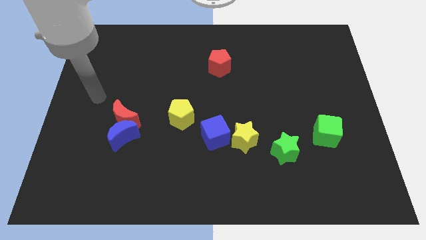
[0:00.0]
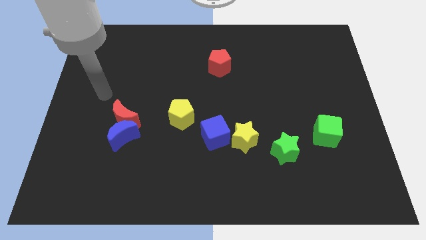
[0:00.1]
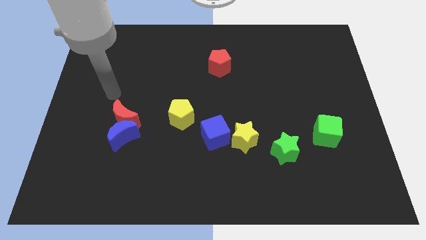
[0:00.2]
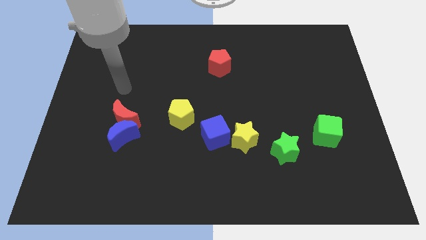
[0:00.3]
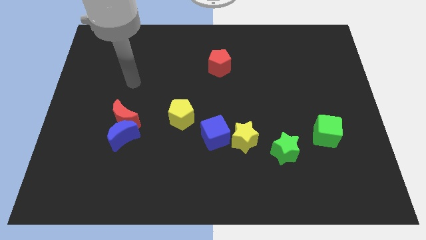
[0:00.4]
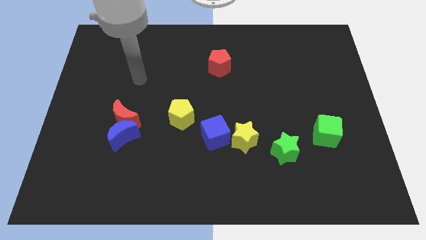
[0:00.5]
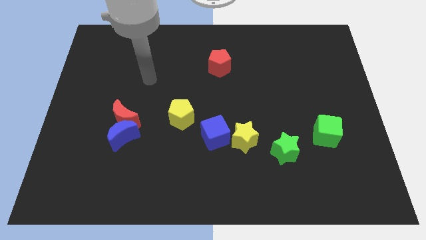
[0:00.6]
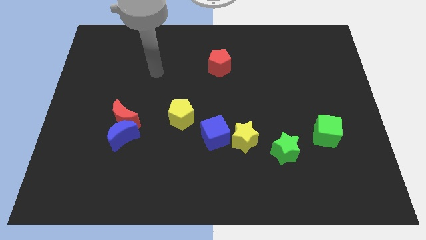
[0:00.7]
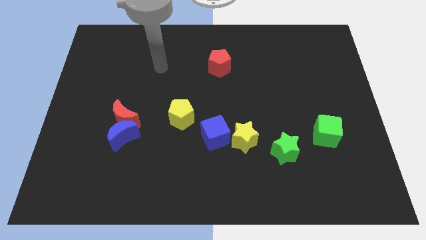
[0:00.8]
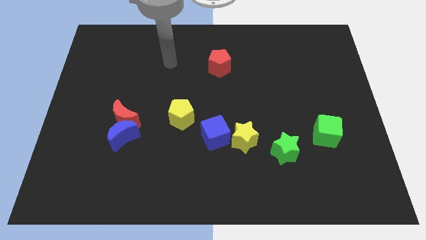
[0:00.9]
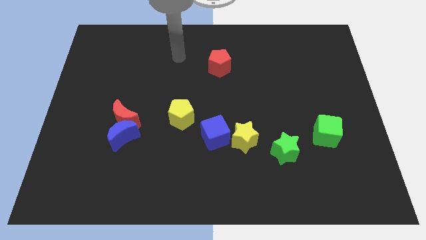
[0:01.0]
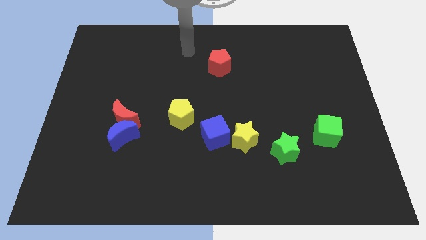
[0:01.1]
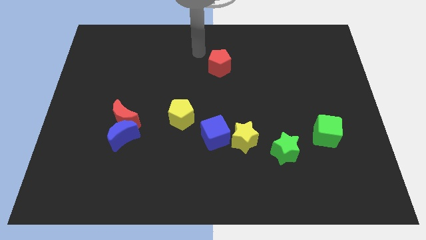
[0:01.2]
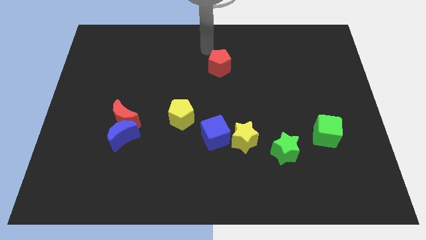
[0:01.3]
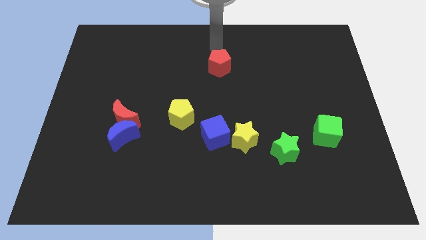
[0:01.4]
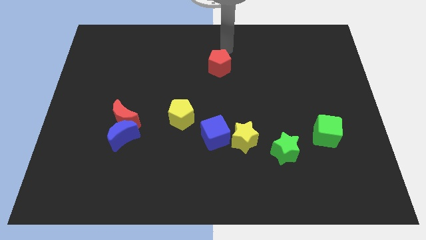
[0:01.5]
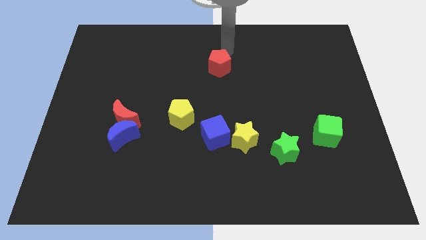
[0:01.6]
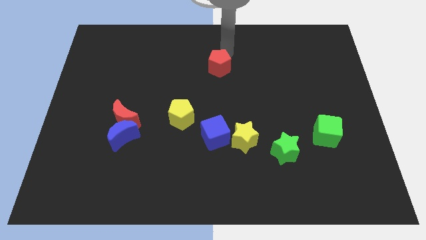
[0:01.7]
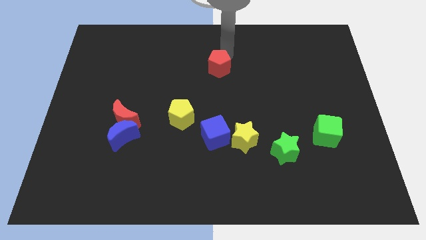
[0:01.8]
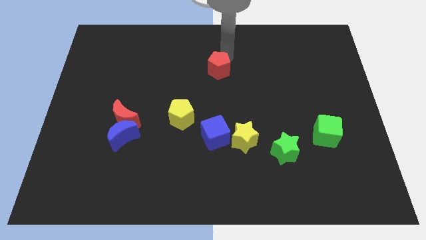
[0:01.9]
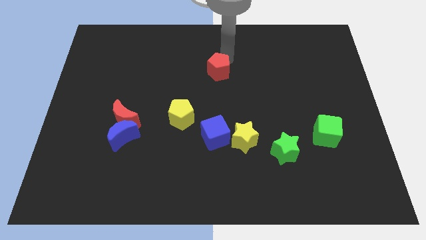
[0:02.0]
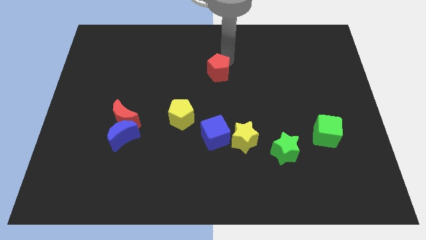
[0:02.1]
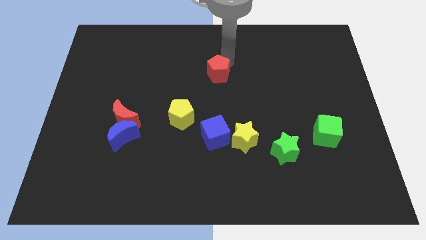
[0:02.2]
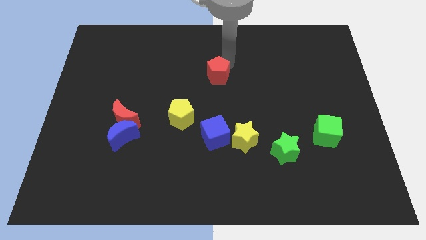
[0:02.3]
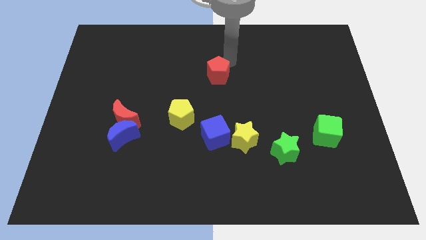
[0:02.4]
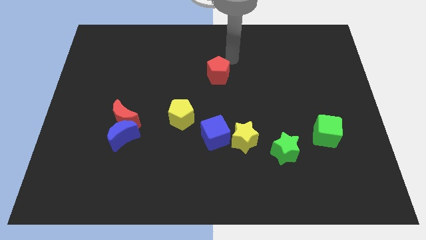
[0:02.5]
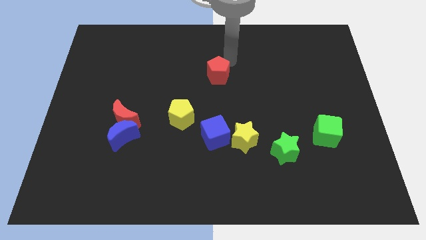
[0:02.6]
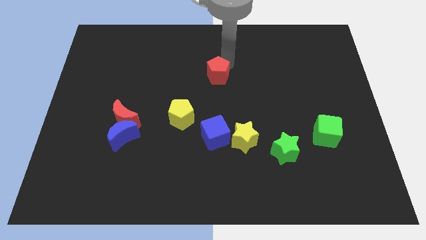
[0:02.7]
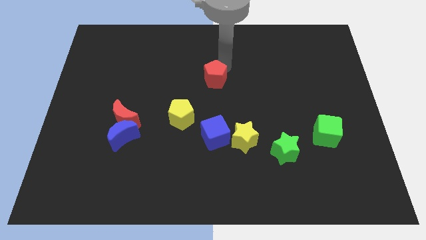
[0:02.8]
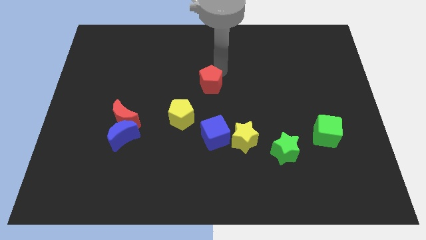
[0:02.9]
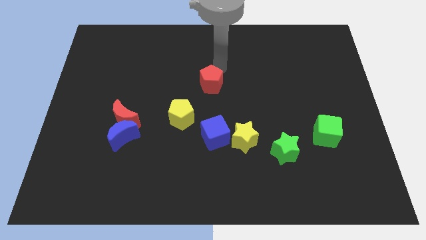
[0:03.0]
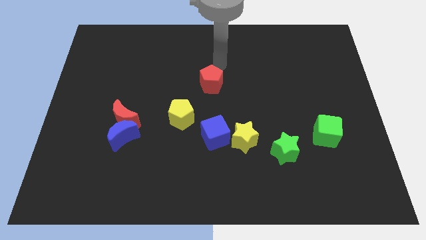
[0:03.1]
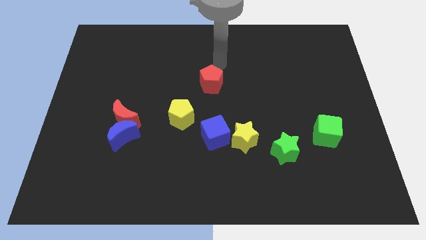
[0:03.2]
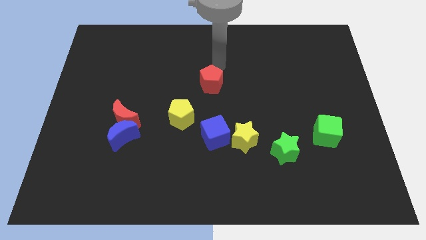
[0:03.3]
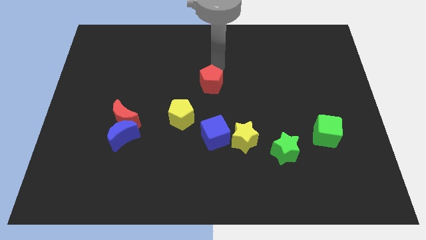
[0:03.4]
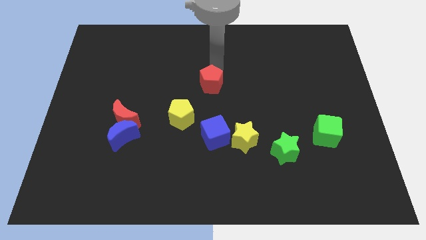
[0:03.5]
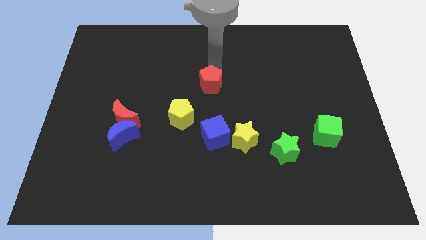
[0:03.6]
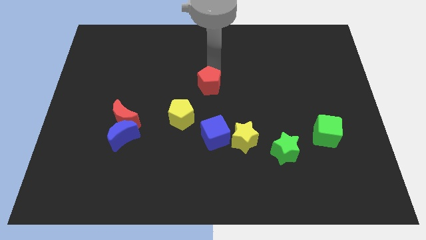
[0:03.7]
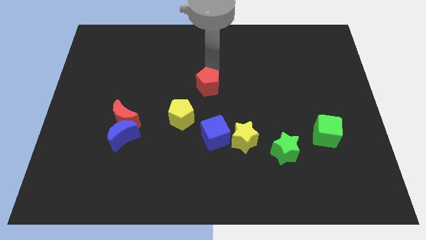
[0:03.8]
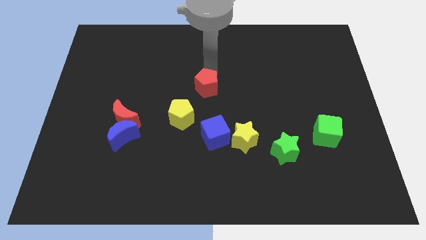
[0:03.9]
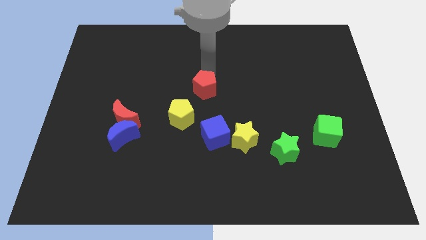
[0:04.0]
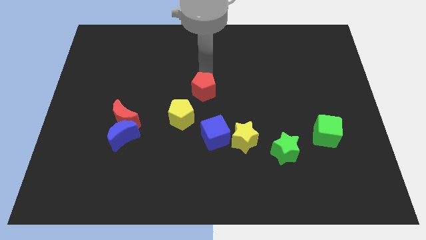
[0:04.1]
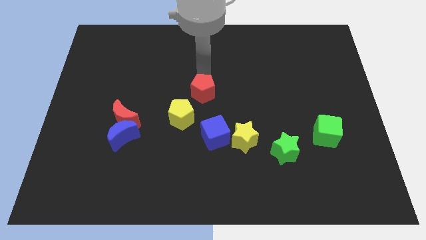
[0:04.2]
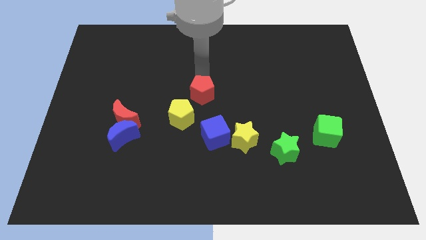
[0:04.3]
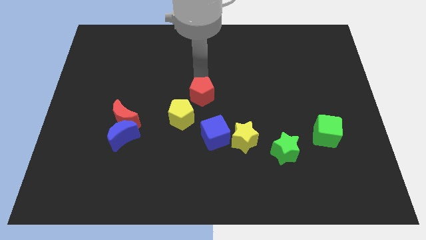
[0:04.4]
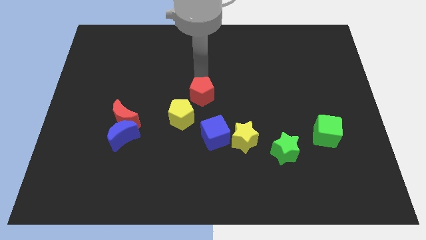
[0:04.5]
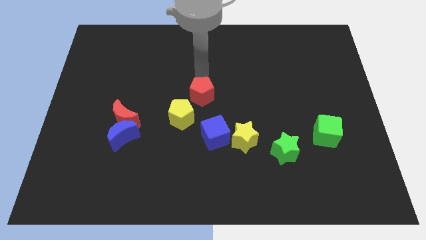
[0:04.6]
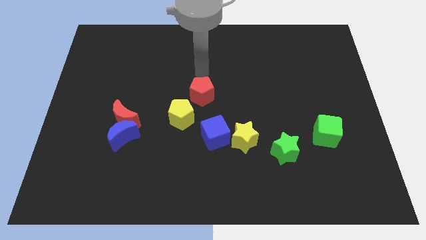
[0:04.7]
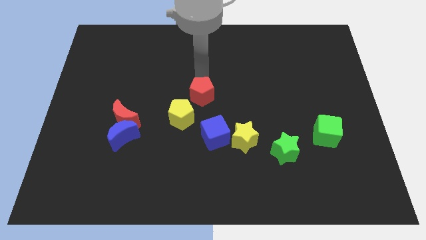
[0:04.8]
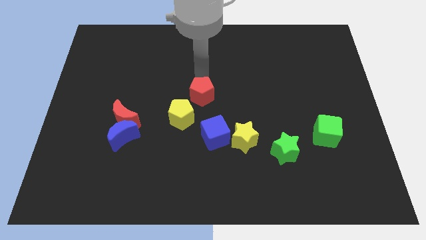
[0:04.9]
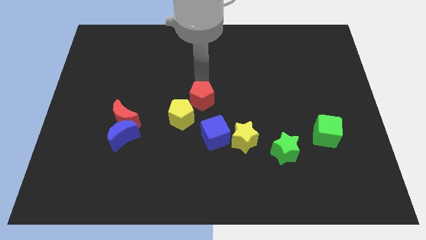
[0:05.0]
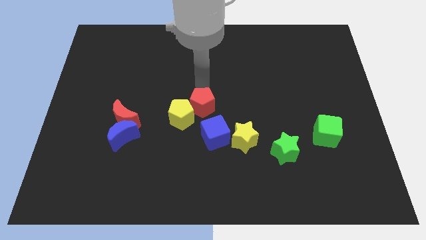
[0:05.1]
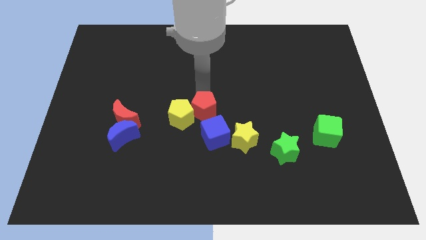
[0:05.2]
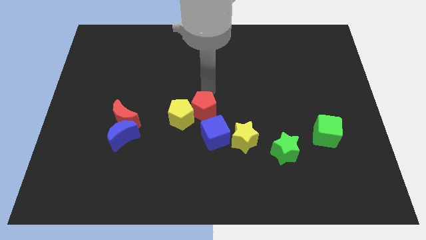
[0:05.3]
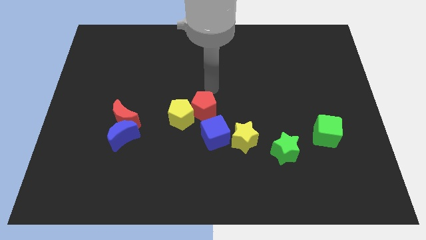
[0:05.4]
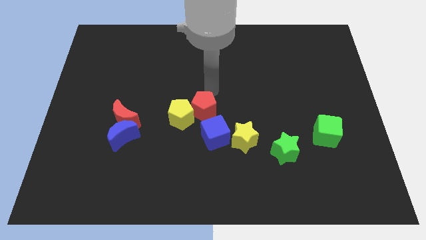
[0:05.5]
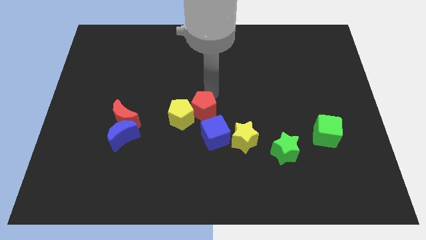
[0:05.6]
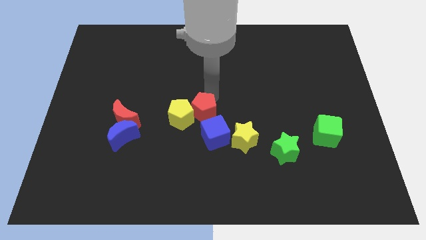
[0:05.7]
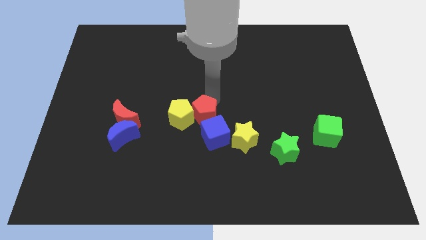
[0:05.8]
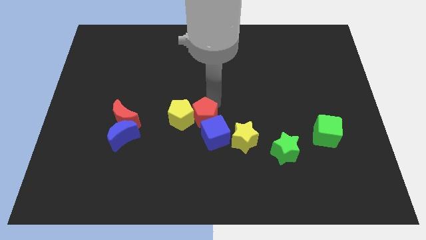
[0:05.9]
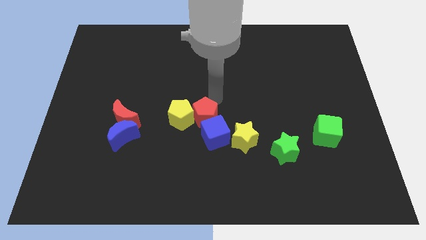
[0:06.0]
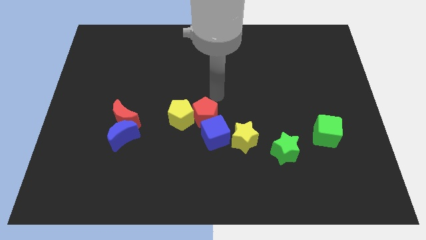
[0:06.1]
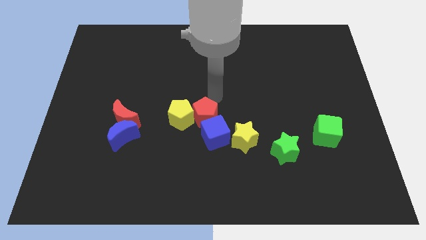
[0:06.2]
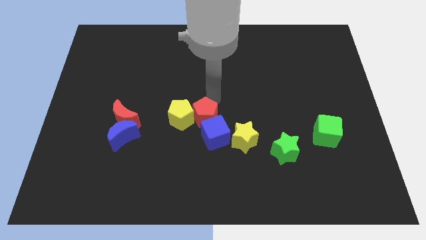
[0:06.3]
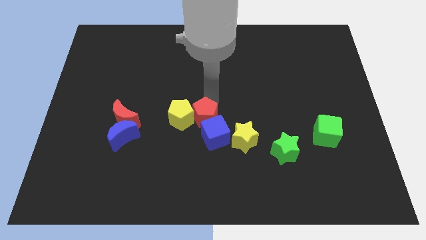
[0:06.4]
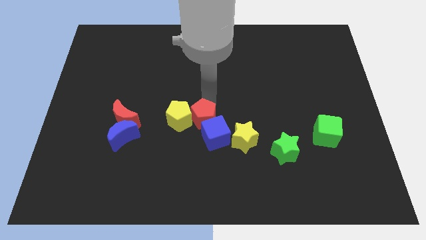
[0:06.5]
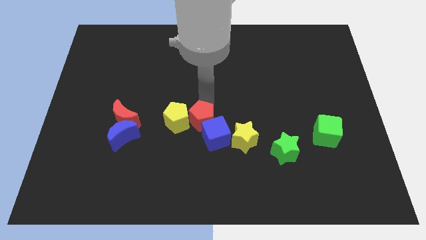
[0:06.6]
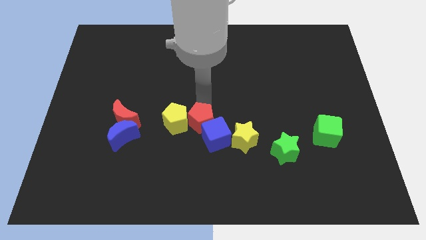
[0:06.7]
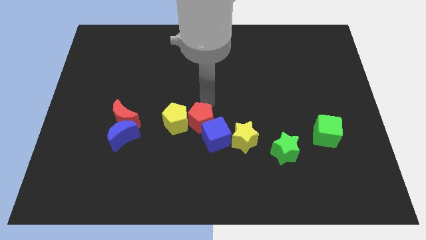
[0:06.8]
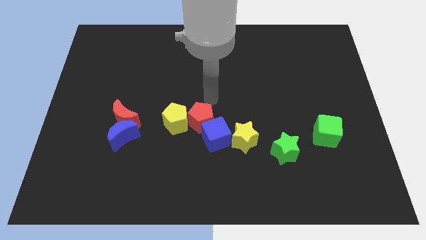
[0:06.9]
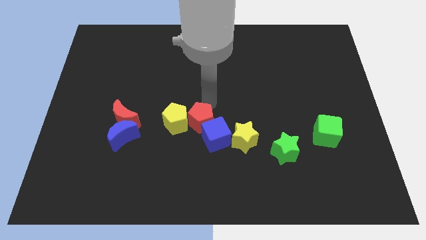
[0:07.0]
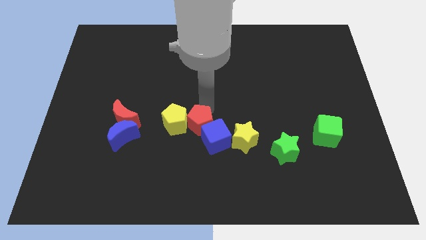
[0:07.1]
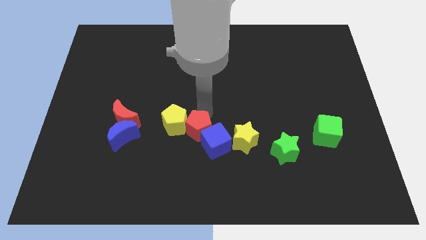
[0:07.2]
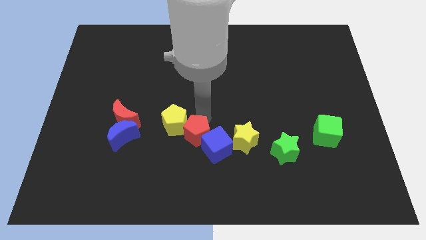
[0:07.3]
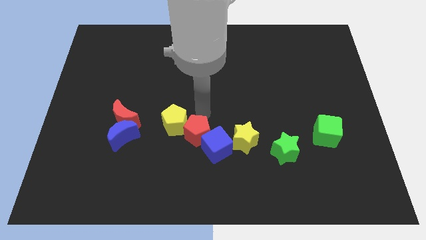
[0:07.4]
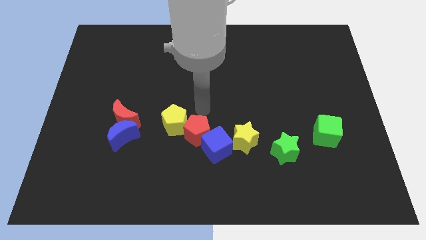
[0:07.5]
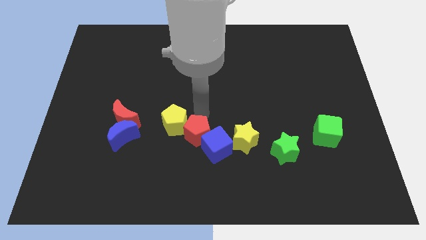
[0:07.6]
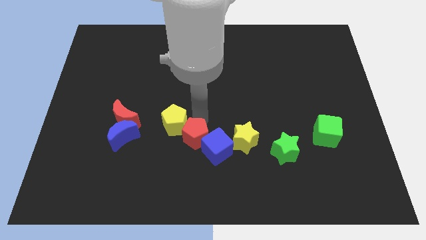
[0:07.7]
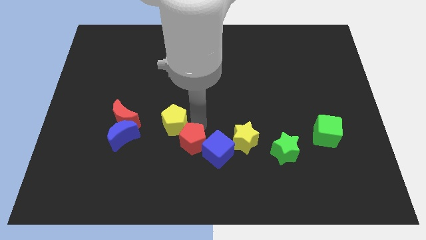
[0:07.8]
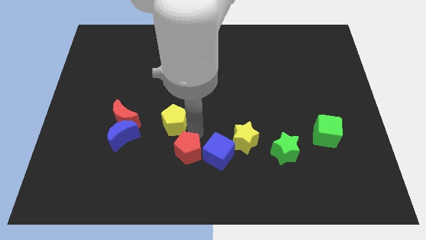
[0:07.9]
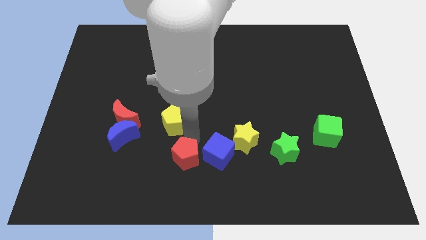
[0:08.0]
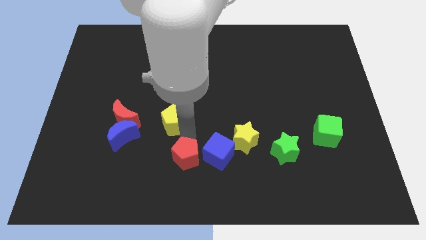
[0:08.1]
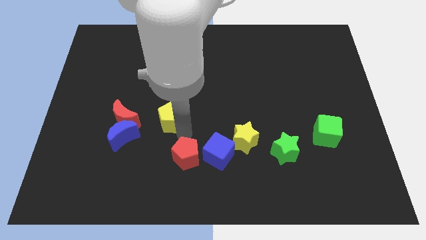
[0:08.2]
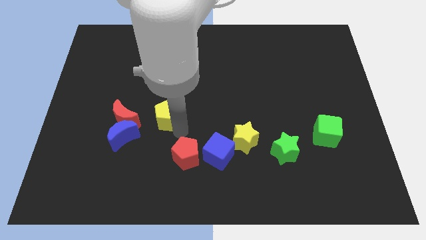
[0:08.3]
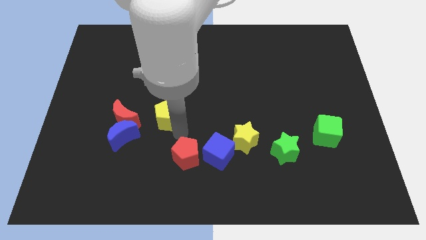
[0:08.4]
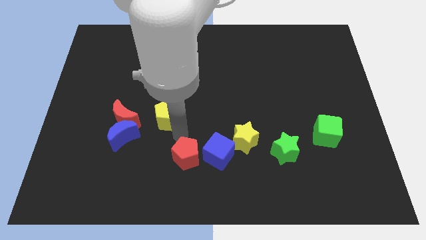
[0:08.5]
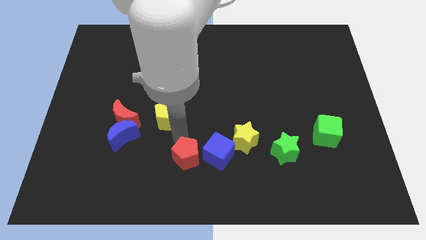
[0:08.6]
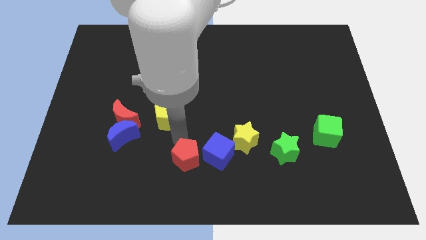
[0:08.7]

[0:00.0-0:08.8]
put the red pentagon to the bottom
